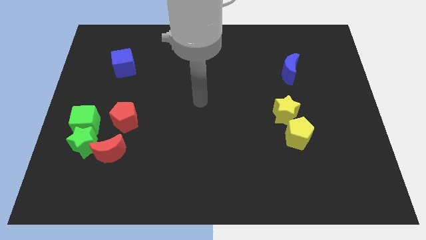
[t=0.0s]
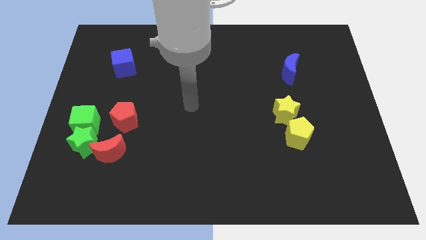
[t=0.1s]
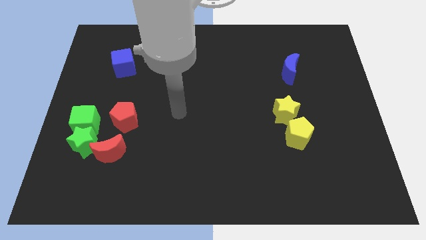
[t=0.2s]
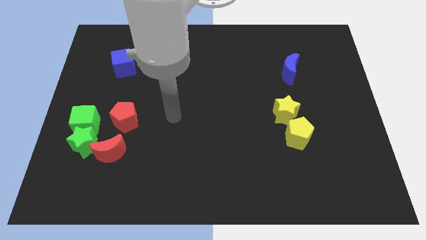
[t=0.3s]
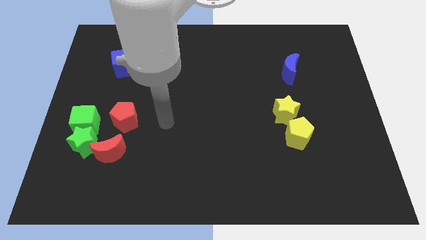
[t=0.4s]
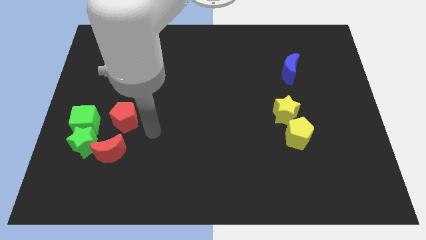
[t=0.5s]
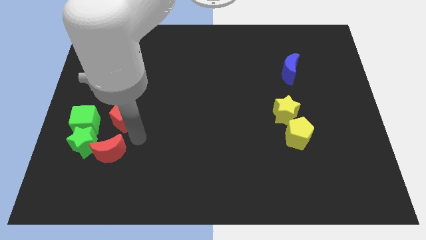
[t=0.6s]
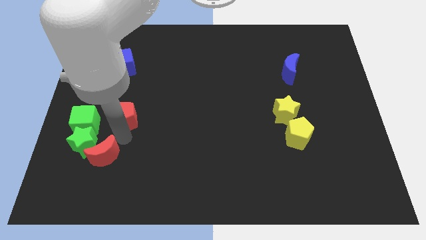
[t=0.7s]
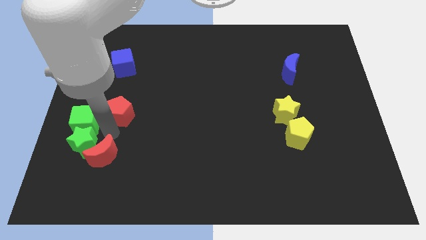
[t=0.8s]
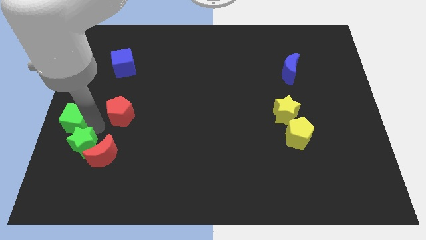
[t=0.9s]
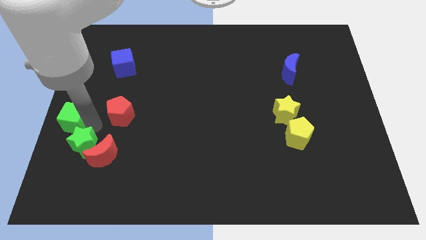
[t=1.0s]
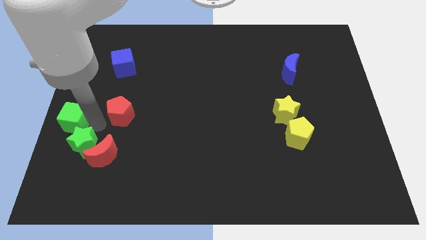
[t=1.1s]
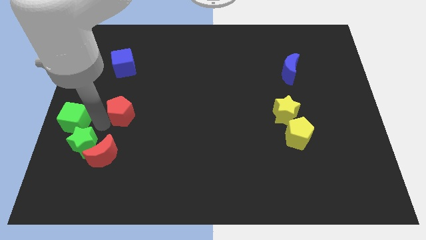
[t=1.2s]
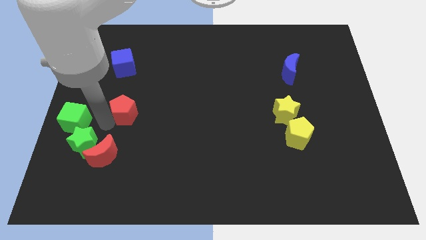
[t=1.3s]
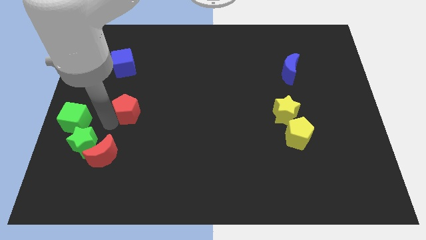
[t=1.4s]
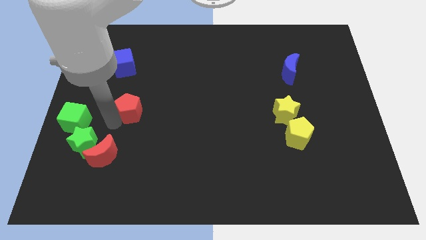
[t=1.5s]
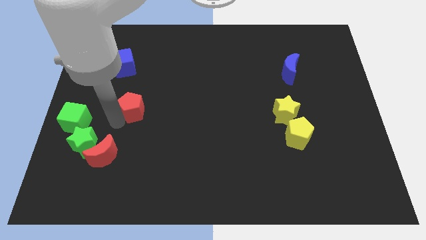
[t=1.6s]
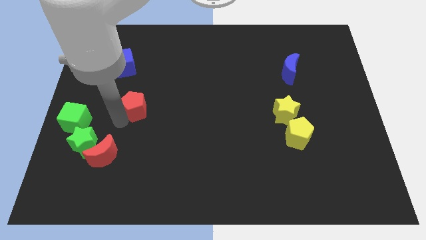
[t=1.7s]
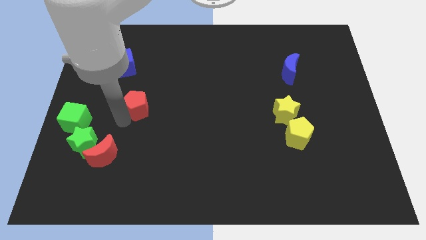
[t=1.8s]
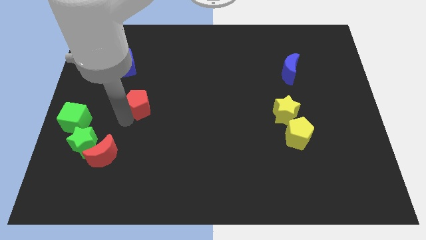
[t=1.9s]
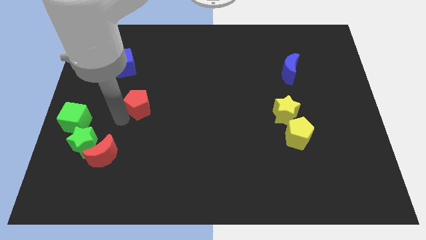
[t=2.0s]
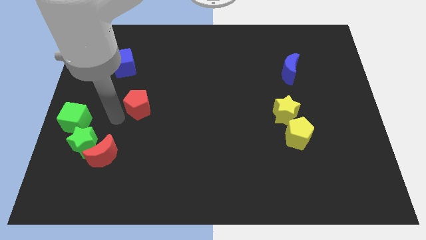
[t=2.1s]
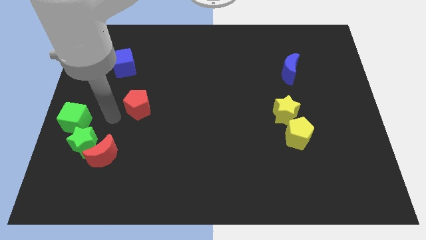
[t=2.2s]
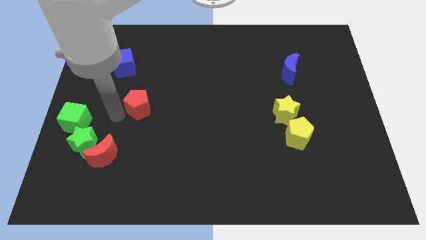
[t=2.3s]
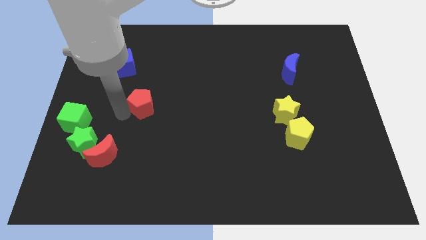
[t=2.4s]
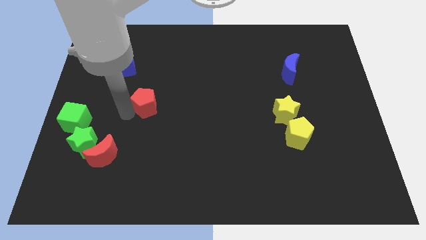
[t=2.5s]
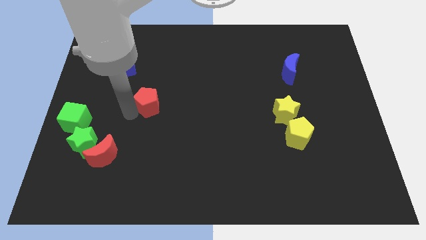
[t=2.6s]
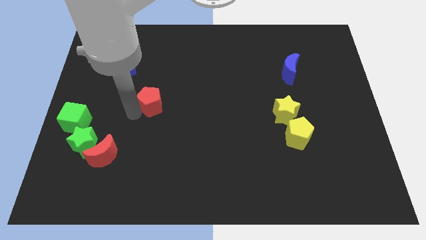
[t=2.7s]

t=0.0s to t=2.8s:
slightly push the red pentagon up and right diagonally

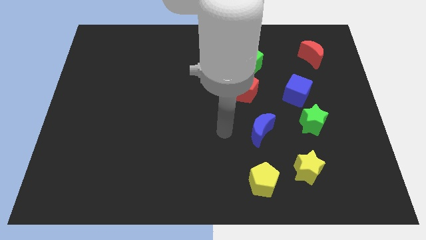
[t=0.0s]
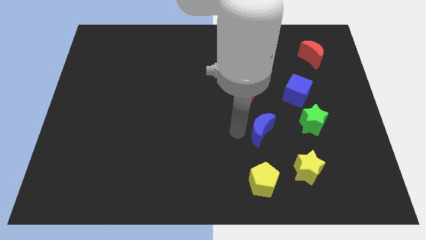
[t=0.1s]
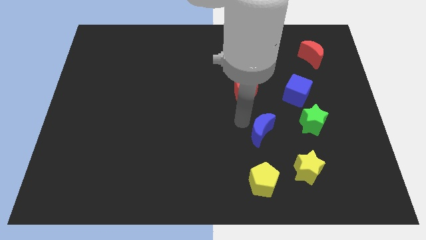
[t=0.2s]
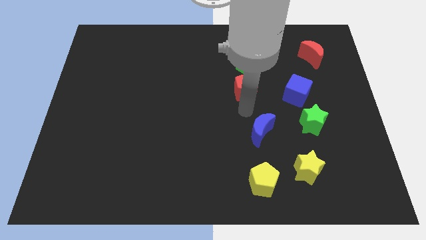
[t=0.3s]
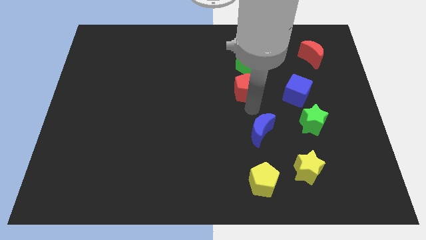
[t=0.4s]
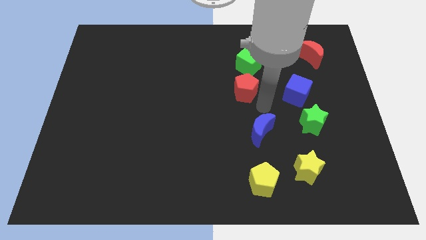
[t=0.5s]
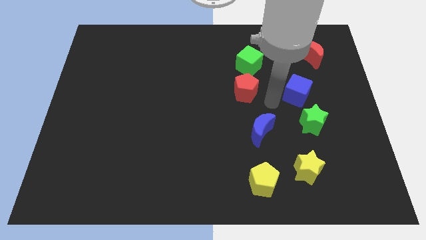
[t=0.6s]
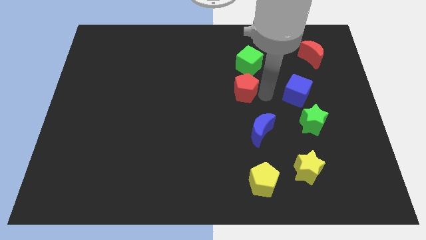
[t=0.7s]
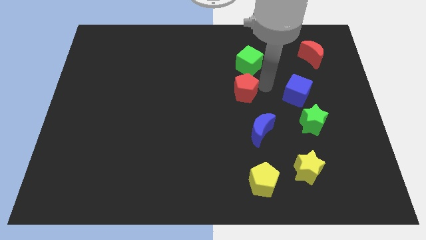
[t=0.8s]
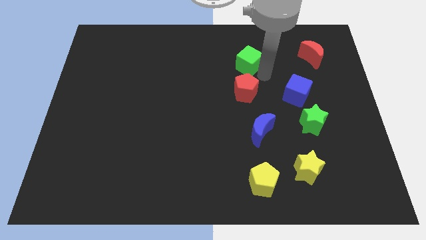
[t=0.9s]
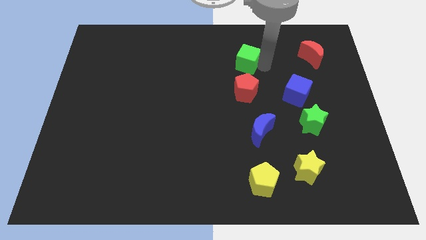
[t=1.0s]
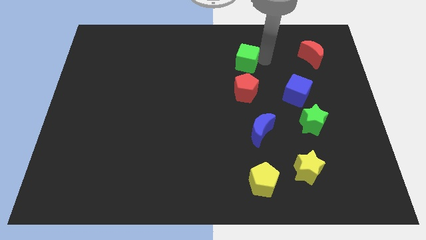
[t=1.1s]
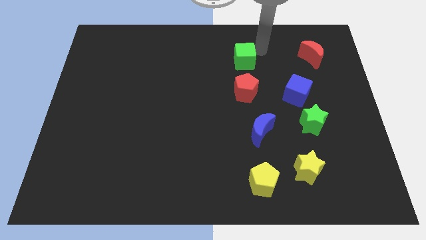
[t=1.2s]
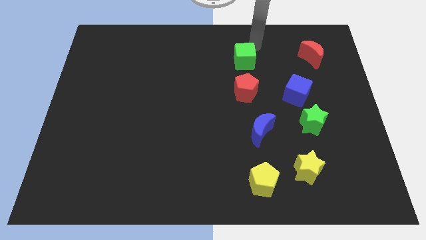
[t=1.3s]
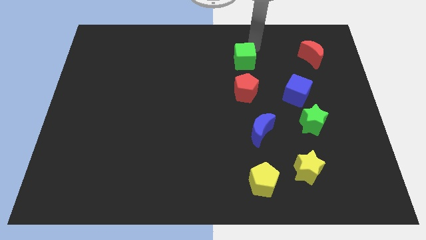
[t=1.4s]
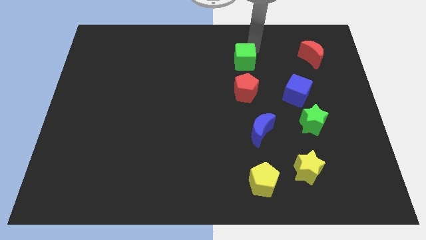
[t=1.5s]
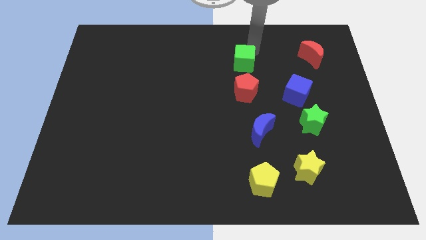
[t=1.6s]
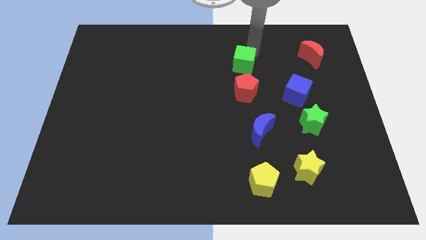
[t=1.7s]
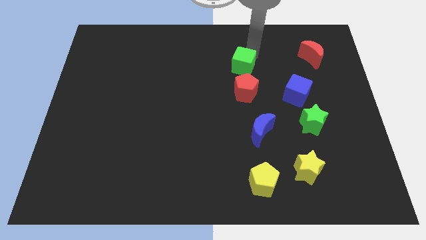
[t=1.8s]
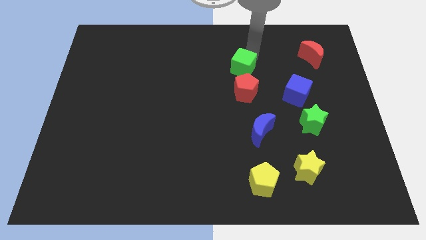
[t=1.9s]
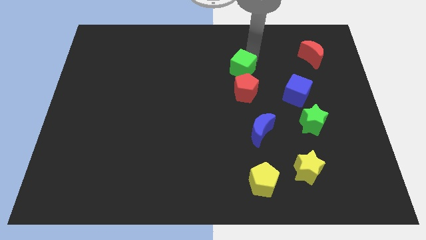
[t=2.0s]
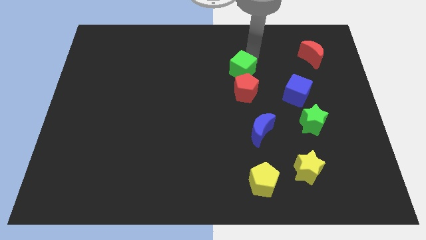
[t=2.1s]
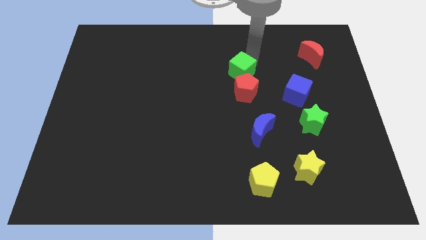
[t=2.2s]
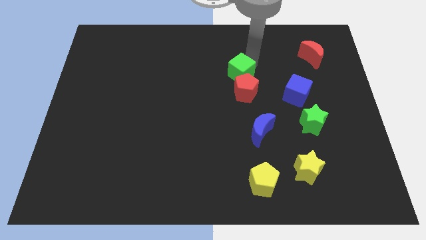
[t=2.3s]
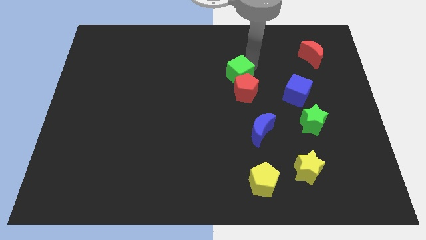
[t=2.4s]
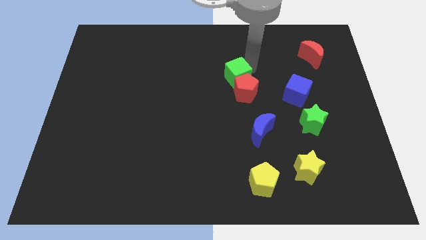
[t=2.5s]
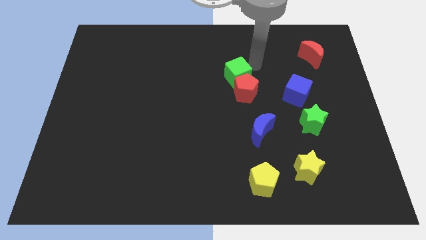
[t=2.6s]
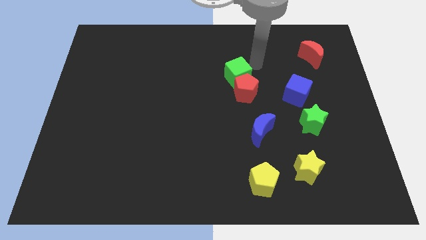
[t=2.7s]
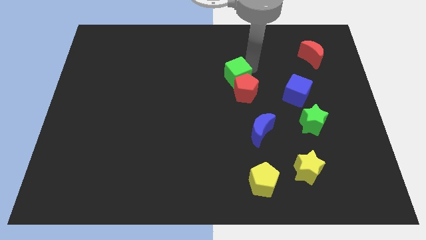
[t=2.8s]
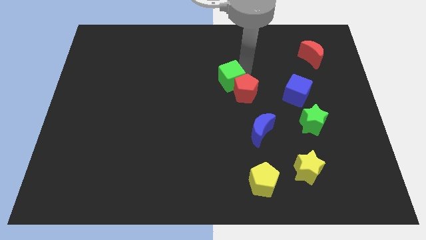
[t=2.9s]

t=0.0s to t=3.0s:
push the green cube down and to the left diagonally somewhat

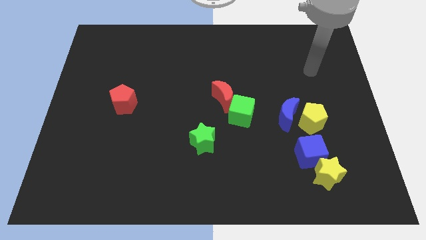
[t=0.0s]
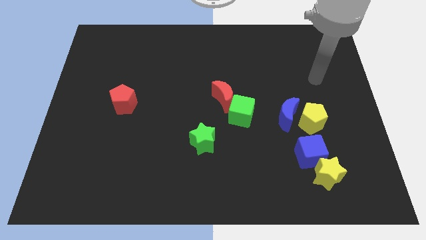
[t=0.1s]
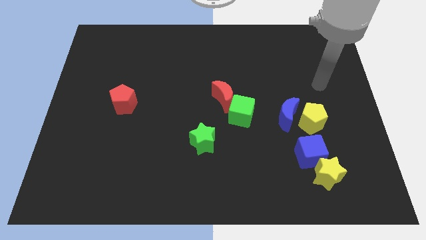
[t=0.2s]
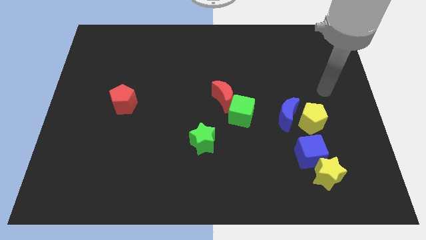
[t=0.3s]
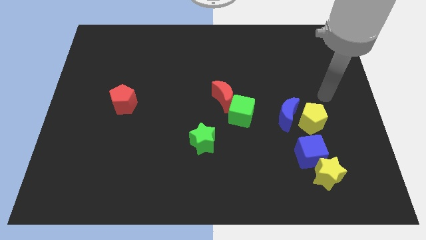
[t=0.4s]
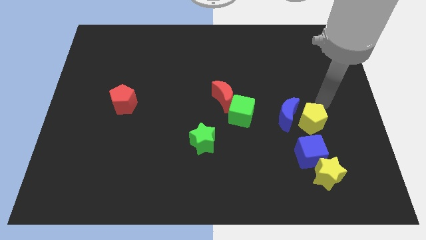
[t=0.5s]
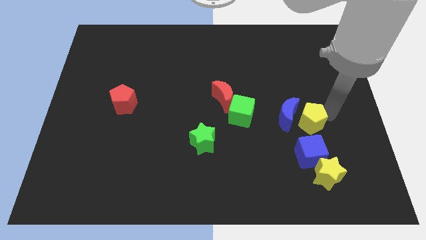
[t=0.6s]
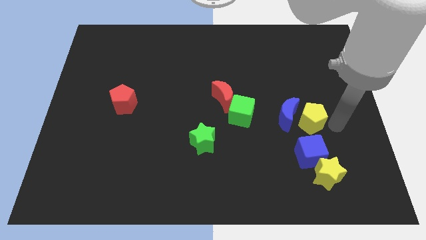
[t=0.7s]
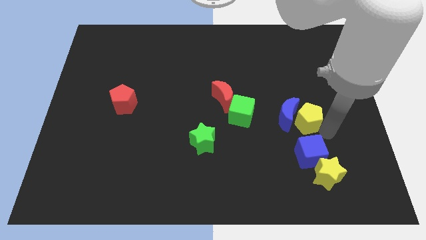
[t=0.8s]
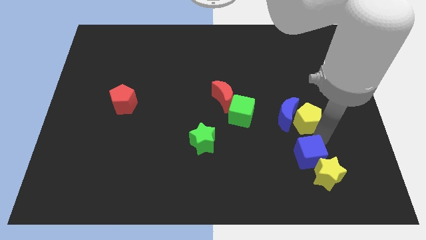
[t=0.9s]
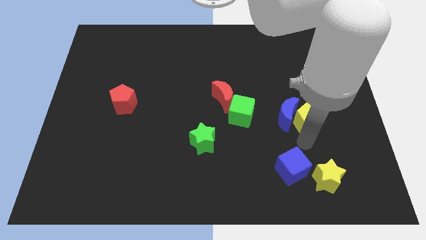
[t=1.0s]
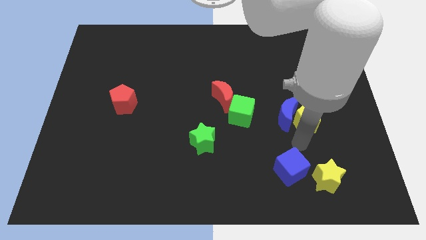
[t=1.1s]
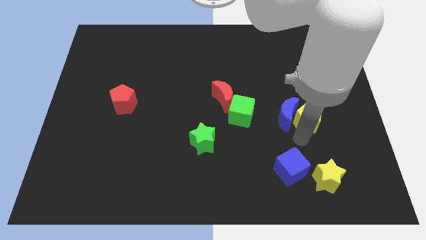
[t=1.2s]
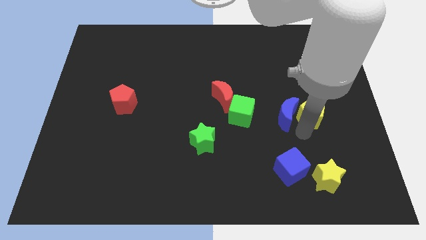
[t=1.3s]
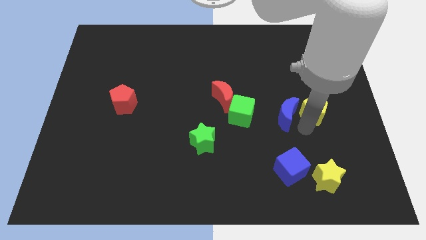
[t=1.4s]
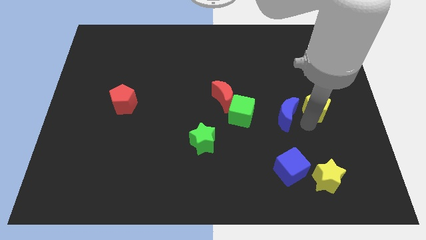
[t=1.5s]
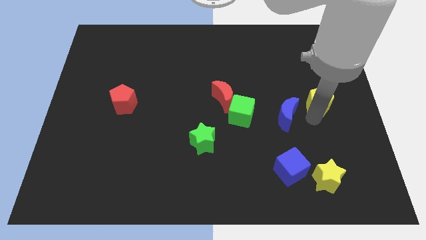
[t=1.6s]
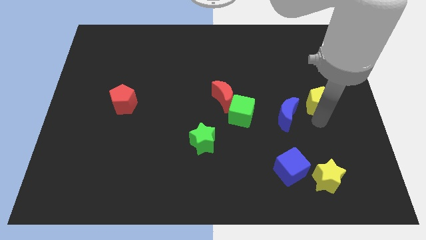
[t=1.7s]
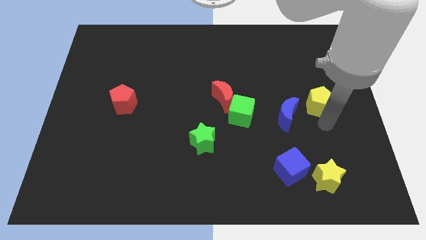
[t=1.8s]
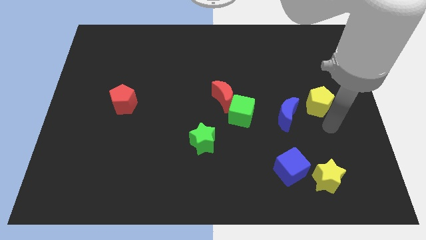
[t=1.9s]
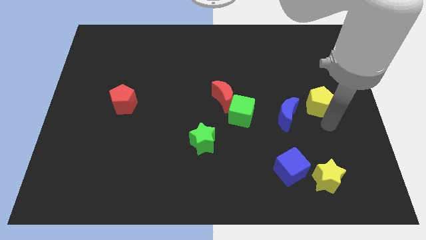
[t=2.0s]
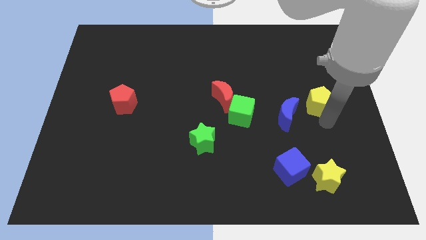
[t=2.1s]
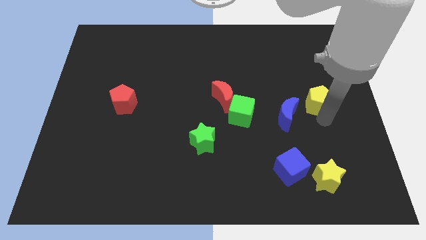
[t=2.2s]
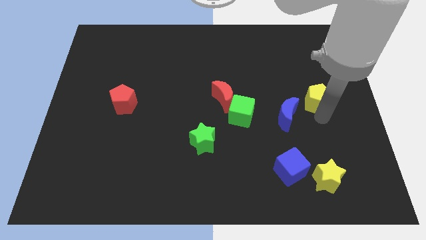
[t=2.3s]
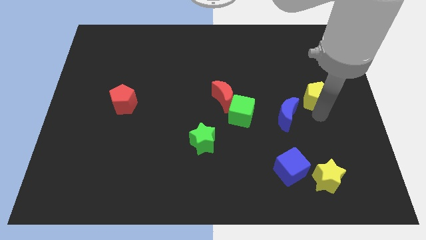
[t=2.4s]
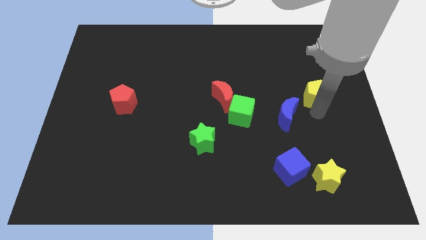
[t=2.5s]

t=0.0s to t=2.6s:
slightly slide the yellow pentagon up
